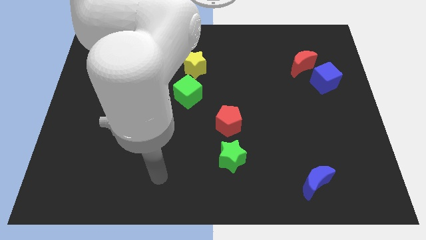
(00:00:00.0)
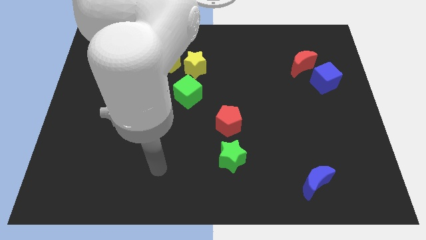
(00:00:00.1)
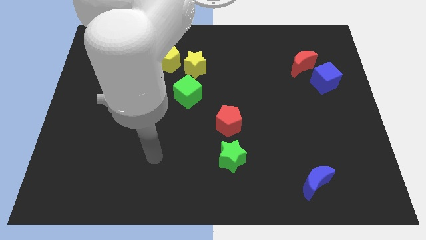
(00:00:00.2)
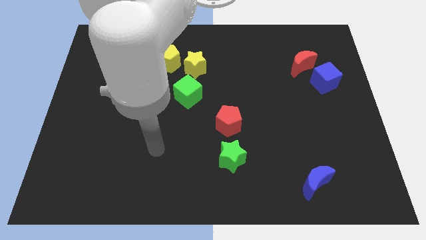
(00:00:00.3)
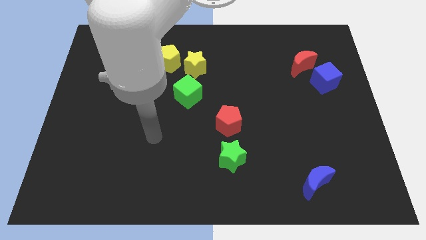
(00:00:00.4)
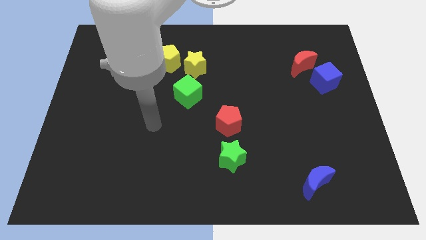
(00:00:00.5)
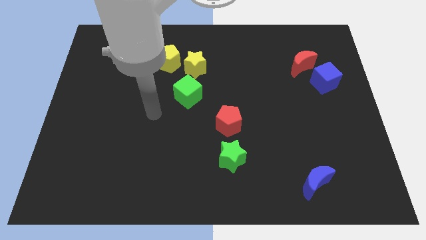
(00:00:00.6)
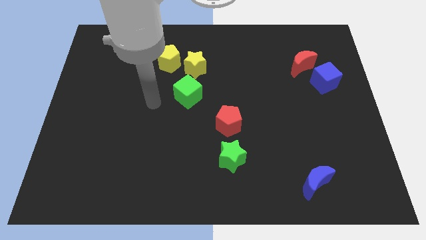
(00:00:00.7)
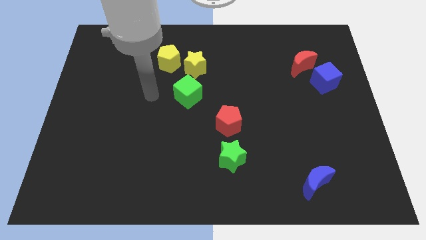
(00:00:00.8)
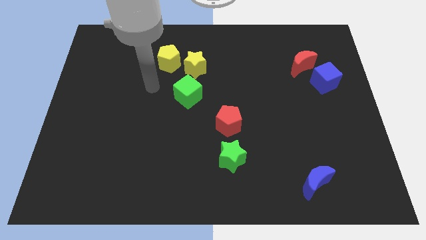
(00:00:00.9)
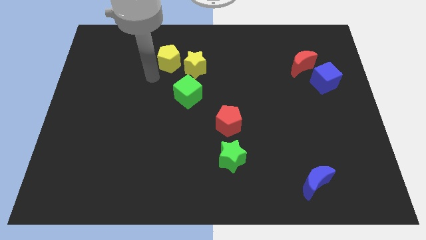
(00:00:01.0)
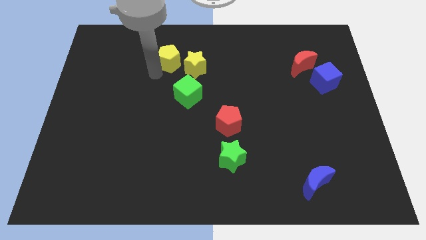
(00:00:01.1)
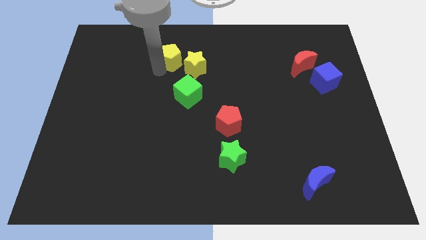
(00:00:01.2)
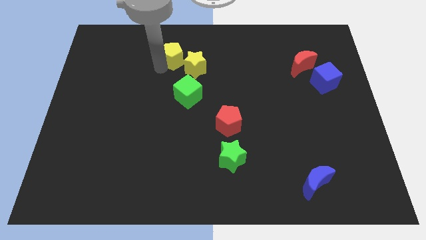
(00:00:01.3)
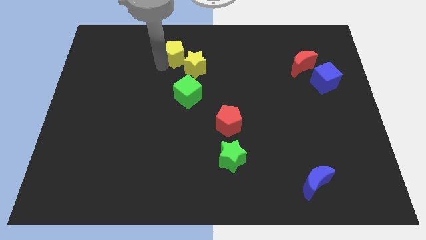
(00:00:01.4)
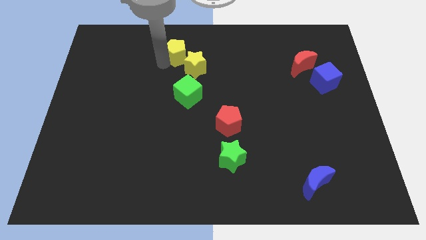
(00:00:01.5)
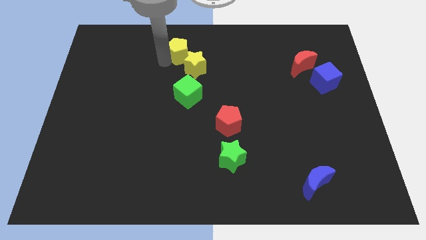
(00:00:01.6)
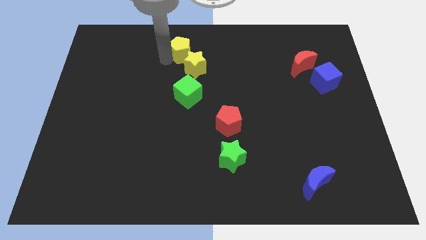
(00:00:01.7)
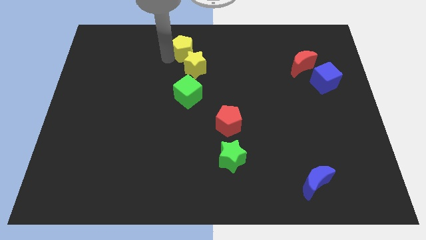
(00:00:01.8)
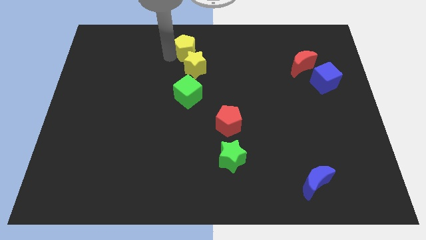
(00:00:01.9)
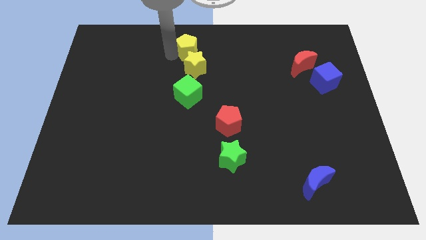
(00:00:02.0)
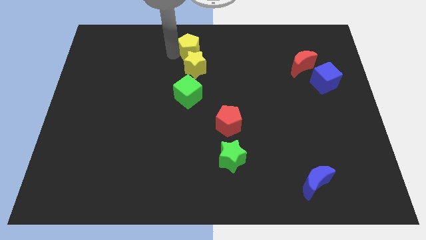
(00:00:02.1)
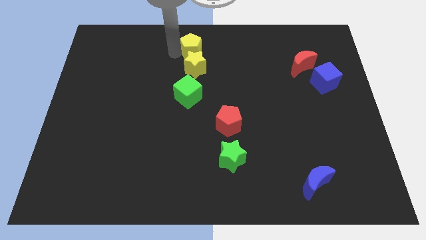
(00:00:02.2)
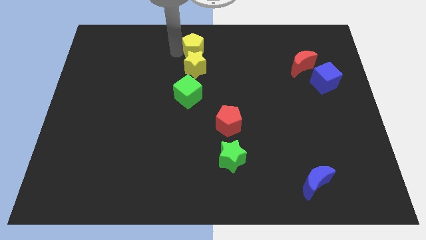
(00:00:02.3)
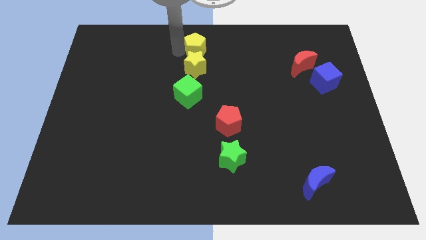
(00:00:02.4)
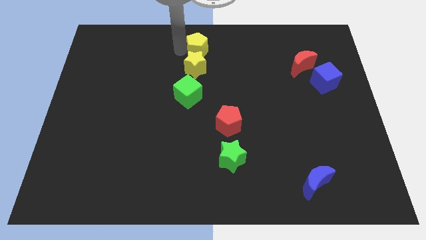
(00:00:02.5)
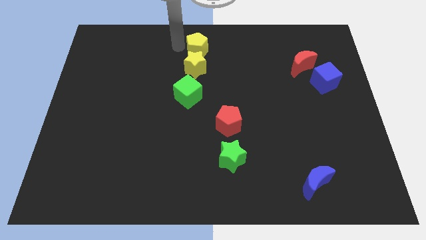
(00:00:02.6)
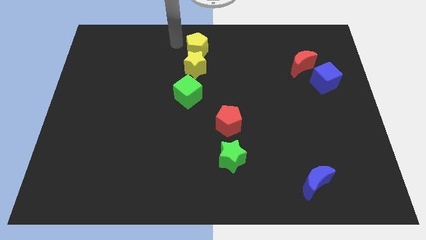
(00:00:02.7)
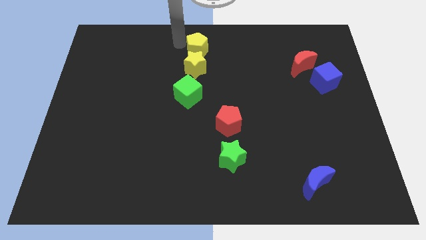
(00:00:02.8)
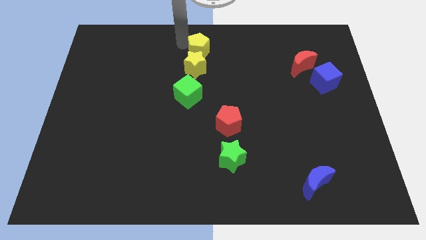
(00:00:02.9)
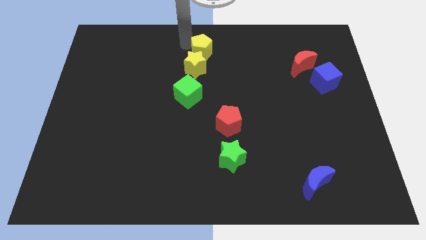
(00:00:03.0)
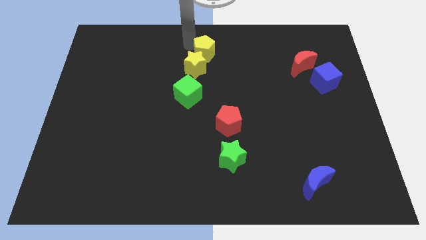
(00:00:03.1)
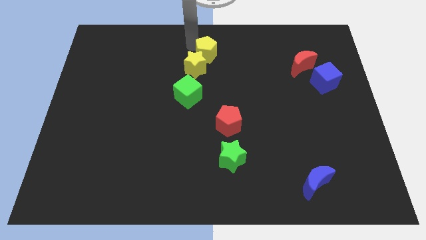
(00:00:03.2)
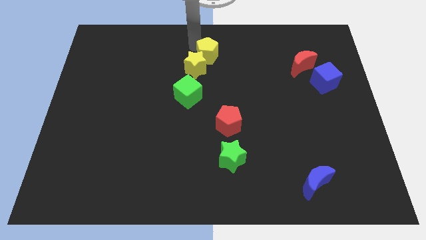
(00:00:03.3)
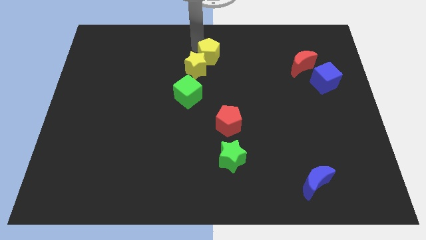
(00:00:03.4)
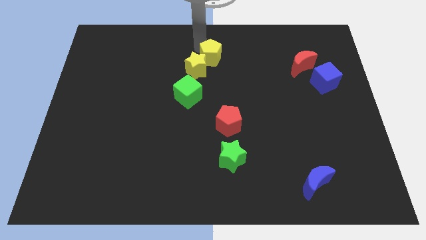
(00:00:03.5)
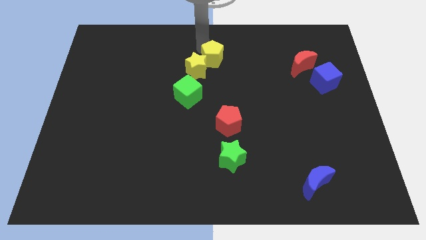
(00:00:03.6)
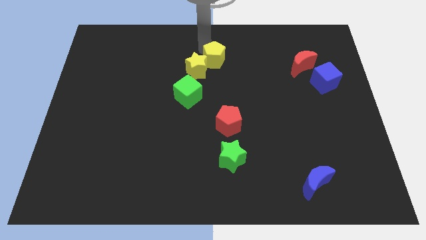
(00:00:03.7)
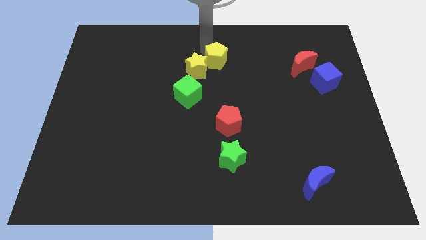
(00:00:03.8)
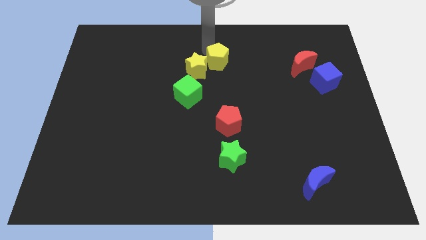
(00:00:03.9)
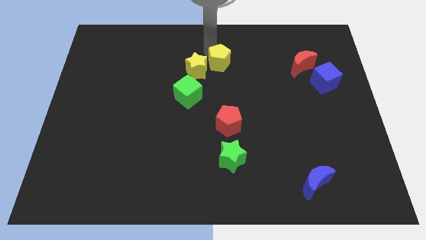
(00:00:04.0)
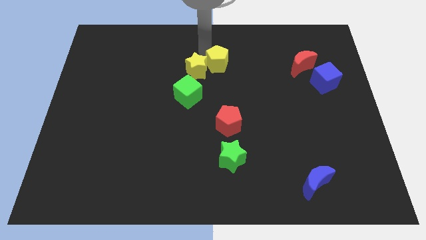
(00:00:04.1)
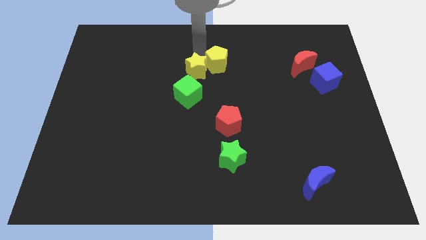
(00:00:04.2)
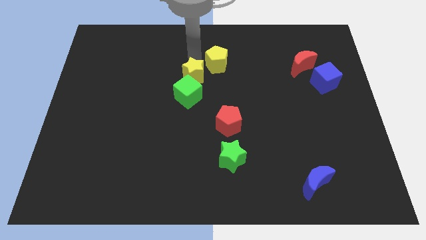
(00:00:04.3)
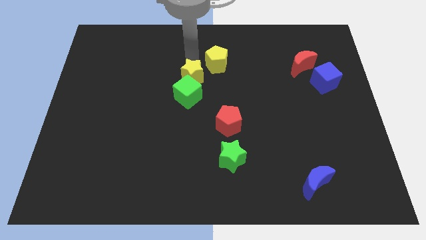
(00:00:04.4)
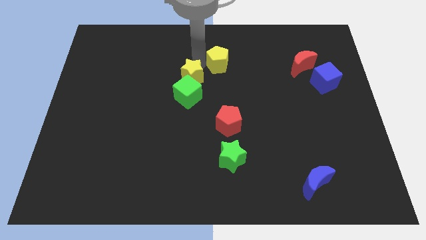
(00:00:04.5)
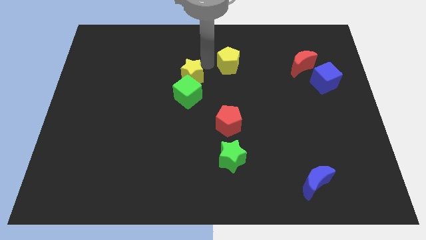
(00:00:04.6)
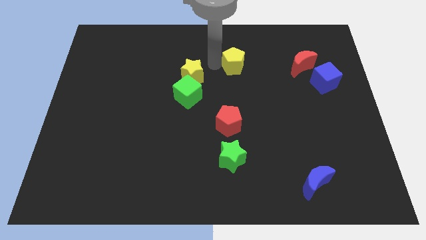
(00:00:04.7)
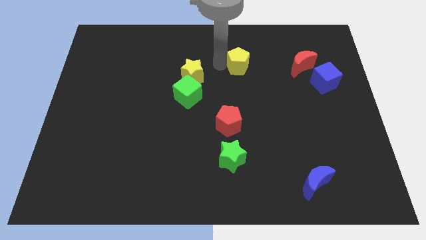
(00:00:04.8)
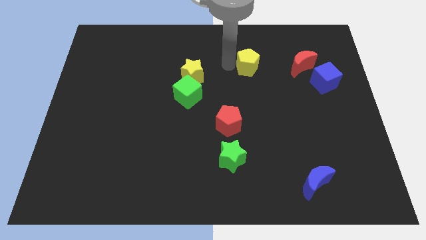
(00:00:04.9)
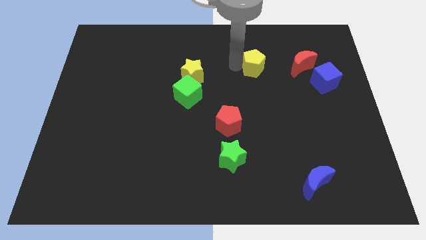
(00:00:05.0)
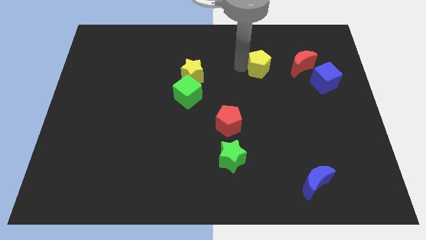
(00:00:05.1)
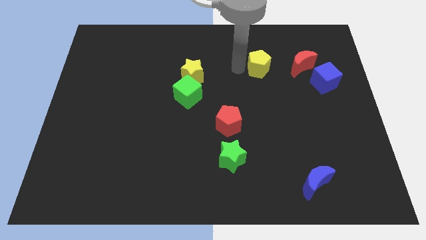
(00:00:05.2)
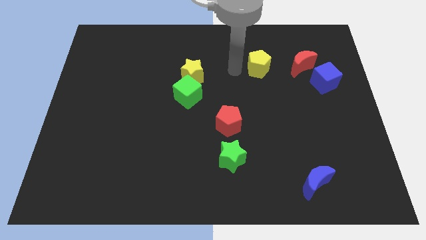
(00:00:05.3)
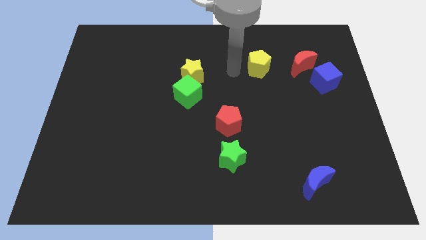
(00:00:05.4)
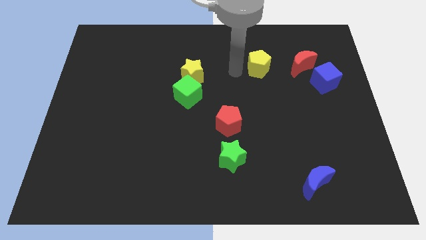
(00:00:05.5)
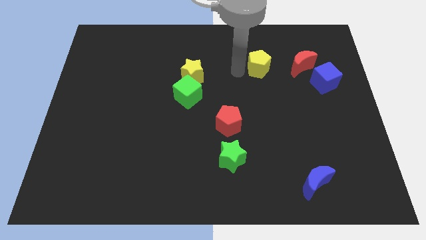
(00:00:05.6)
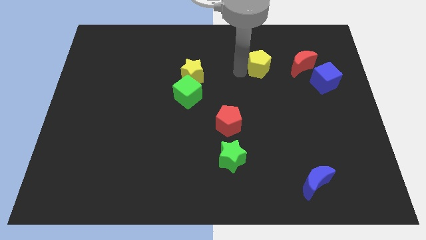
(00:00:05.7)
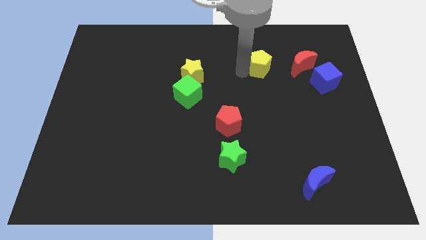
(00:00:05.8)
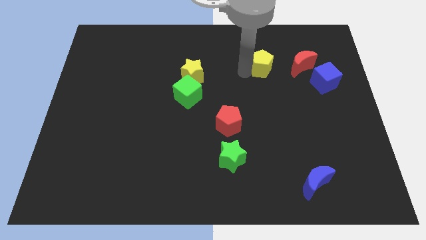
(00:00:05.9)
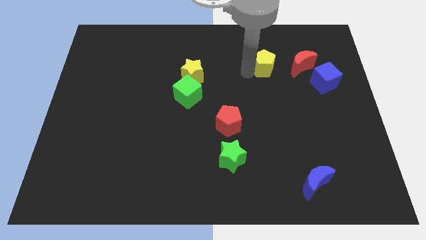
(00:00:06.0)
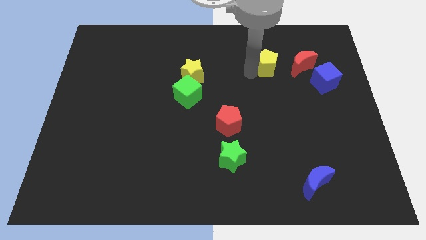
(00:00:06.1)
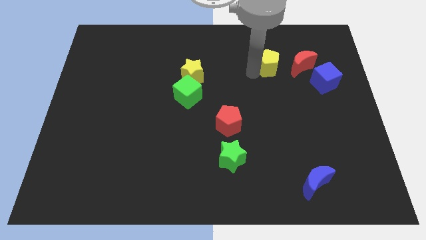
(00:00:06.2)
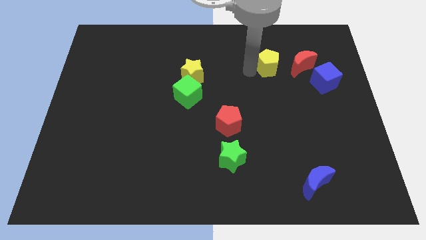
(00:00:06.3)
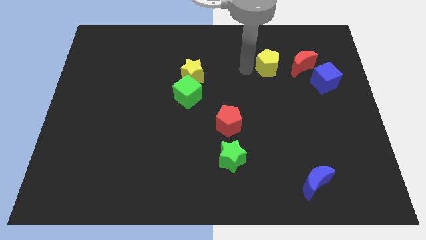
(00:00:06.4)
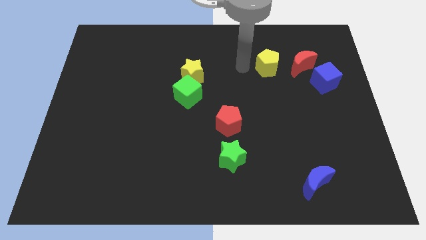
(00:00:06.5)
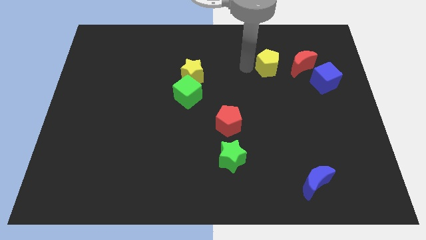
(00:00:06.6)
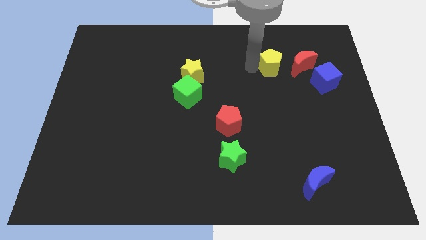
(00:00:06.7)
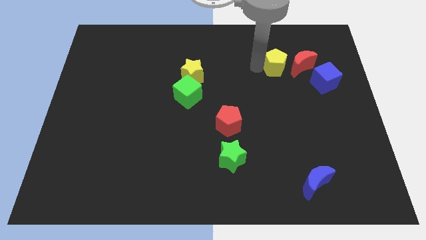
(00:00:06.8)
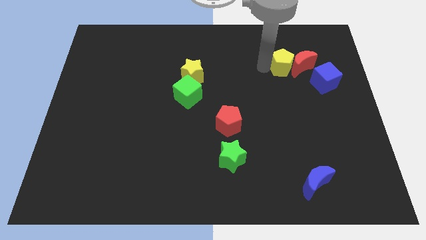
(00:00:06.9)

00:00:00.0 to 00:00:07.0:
slide the yellow pentagon to the red moon

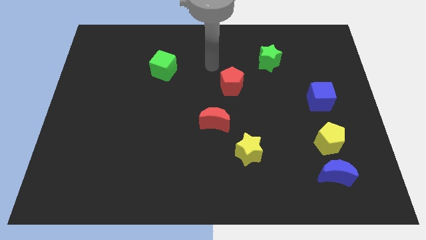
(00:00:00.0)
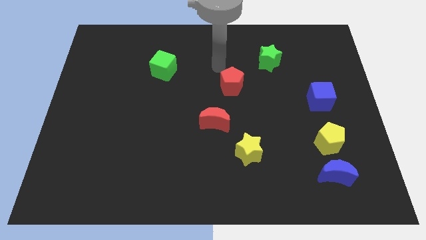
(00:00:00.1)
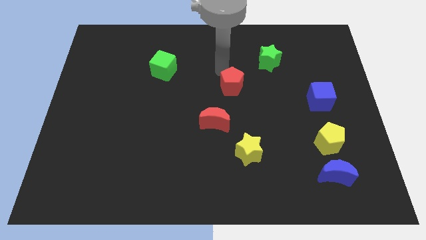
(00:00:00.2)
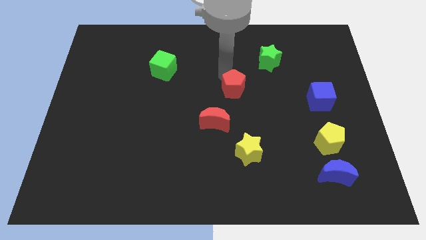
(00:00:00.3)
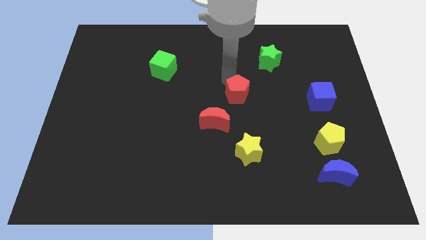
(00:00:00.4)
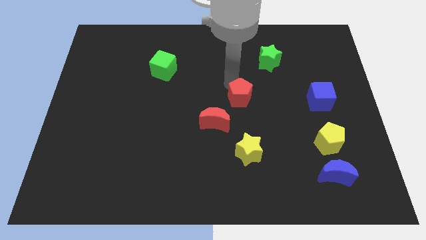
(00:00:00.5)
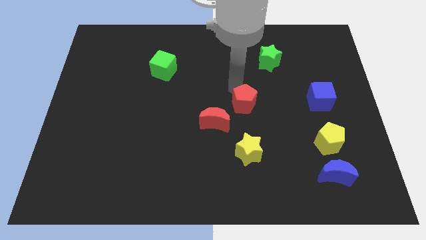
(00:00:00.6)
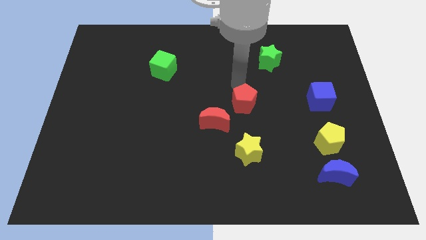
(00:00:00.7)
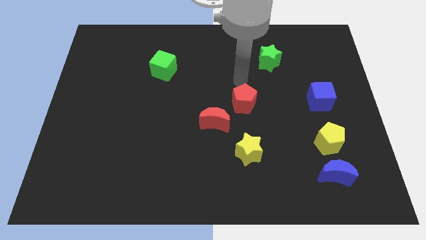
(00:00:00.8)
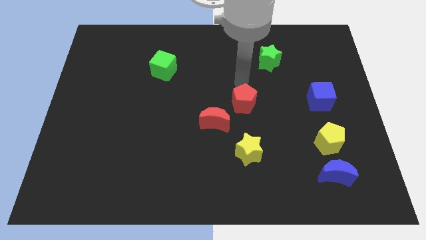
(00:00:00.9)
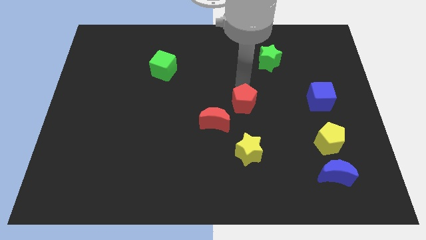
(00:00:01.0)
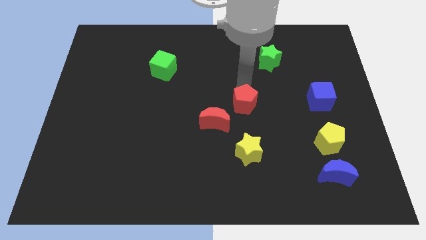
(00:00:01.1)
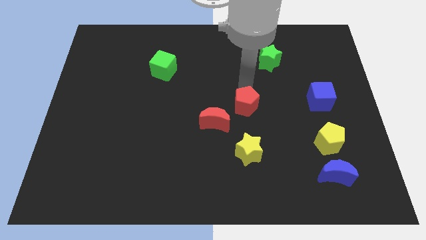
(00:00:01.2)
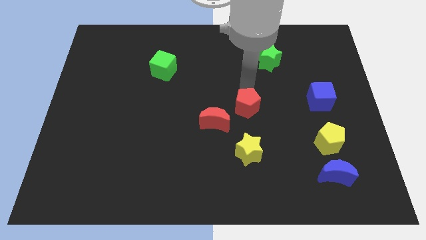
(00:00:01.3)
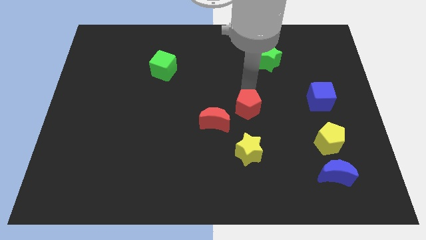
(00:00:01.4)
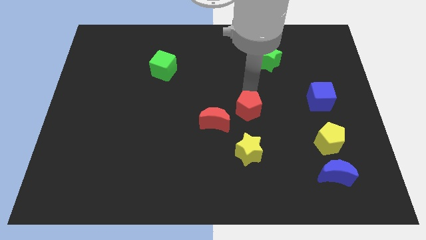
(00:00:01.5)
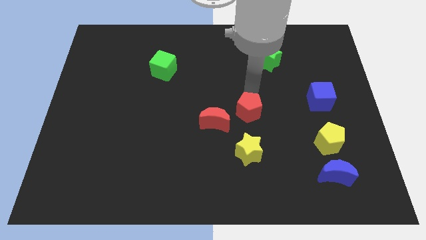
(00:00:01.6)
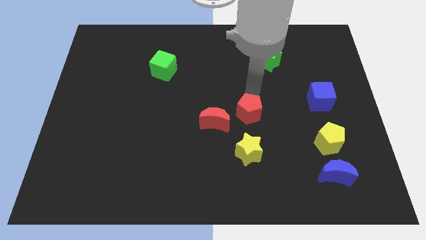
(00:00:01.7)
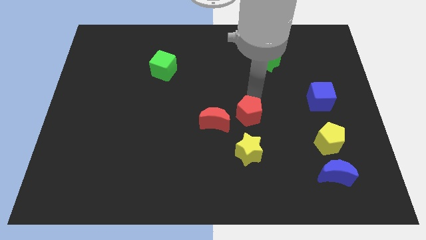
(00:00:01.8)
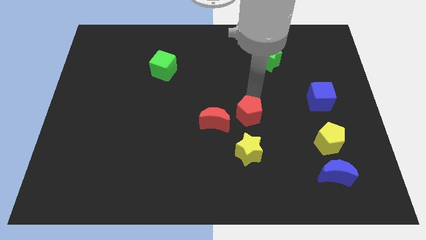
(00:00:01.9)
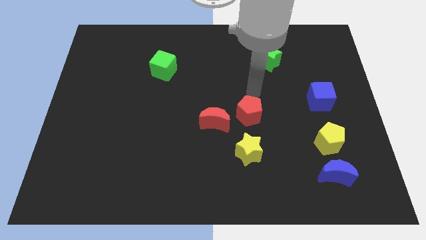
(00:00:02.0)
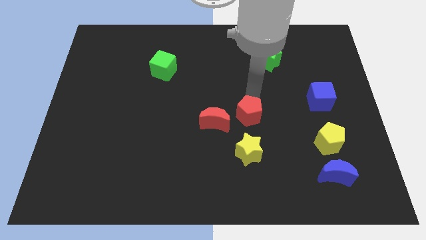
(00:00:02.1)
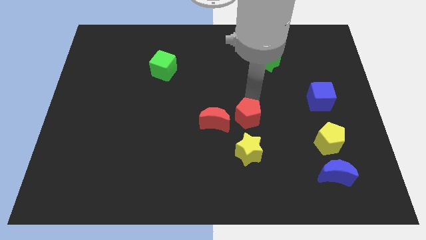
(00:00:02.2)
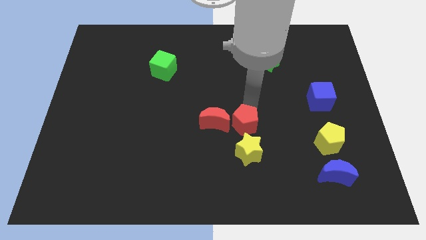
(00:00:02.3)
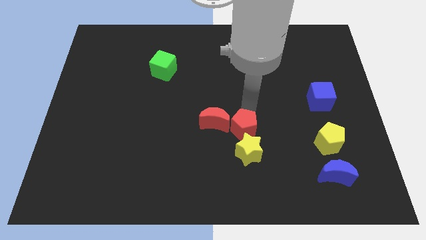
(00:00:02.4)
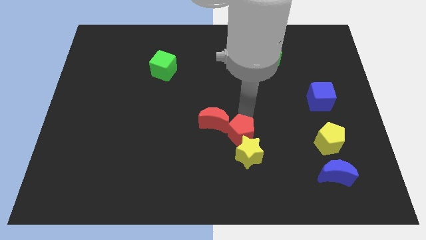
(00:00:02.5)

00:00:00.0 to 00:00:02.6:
move the red pentagon close to the yellow star
